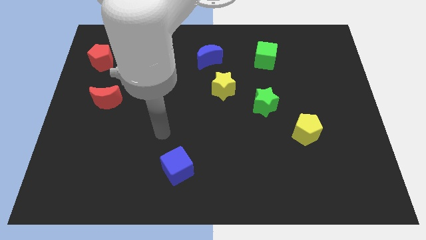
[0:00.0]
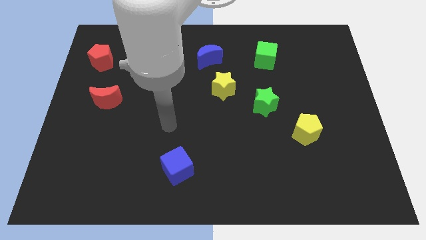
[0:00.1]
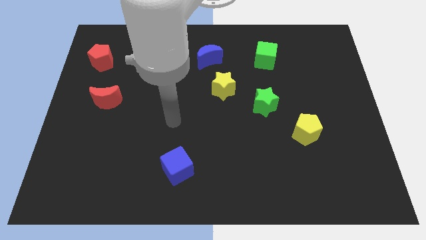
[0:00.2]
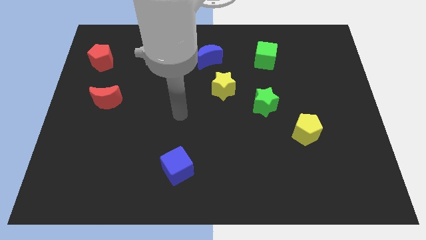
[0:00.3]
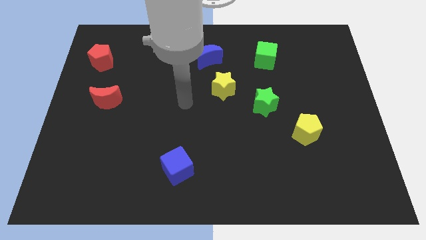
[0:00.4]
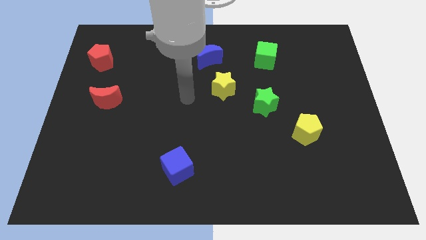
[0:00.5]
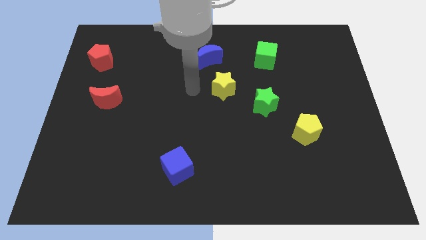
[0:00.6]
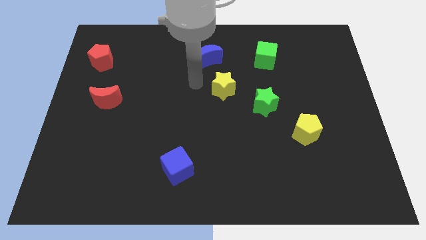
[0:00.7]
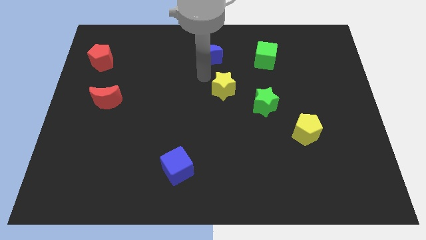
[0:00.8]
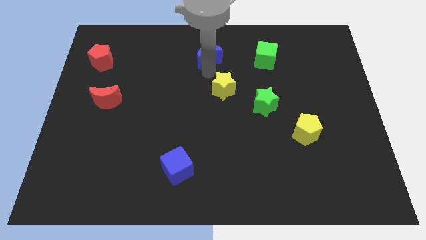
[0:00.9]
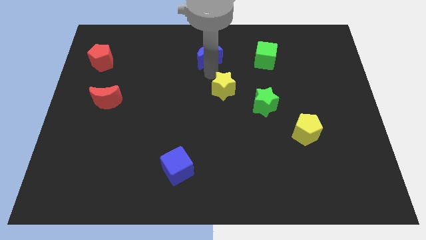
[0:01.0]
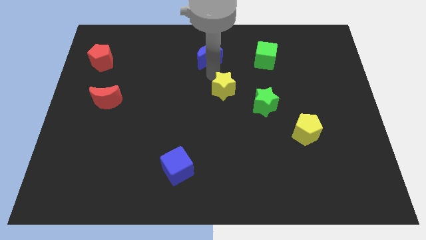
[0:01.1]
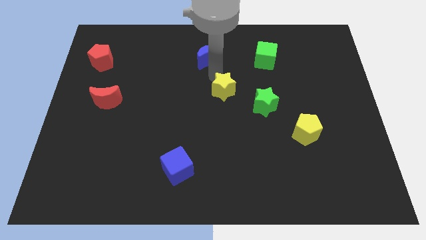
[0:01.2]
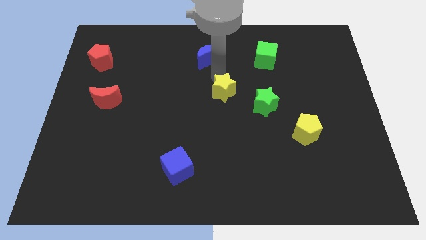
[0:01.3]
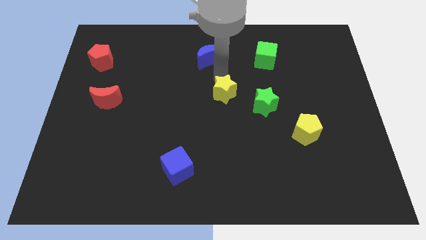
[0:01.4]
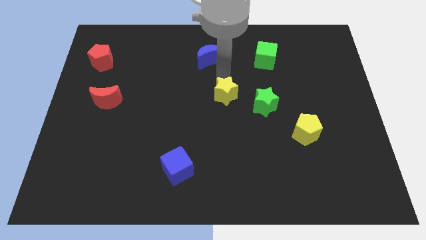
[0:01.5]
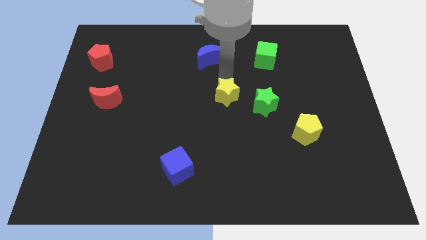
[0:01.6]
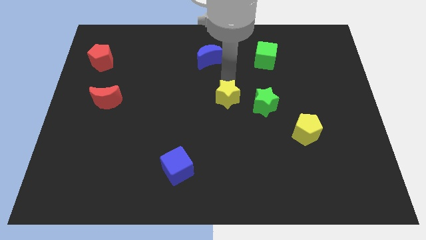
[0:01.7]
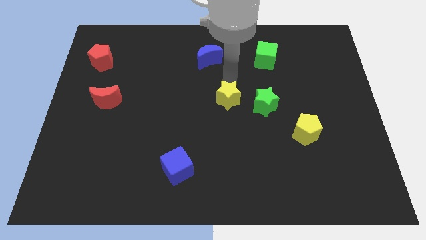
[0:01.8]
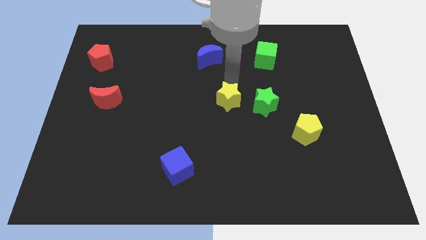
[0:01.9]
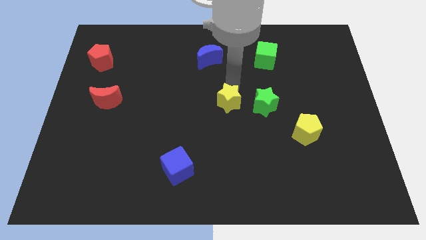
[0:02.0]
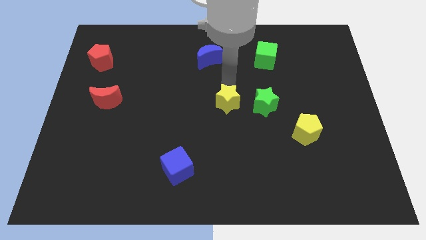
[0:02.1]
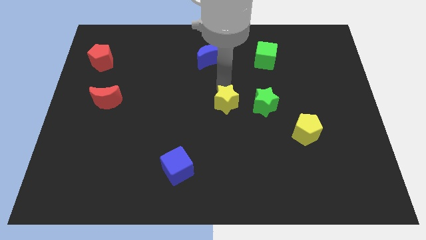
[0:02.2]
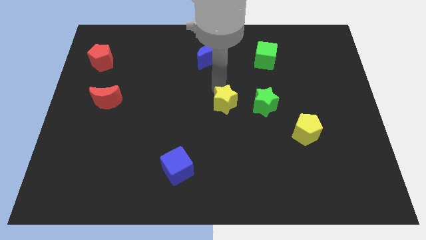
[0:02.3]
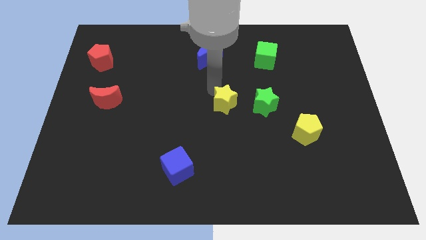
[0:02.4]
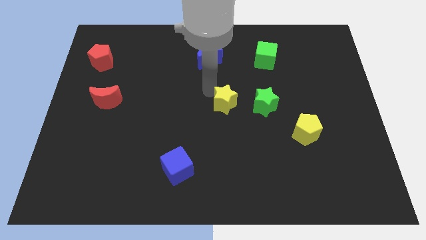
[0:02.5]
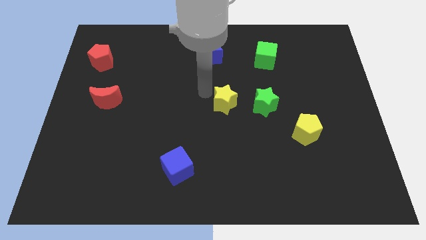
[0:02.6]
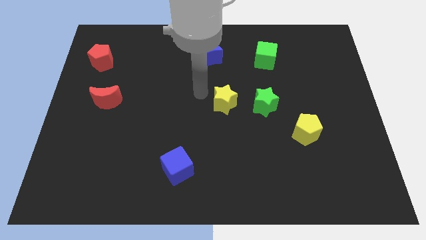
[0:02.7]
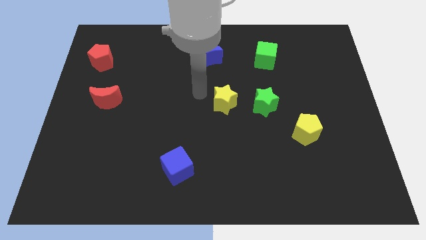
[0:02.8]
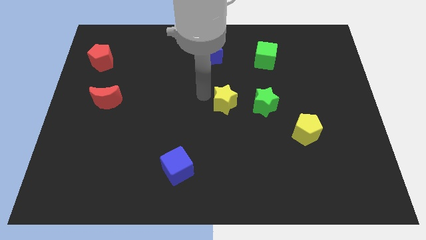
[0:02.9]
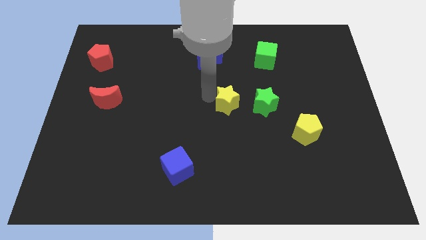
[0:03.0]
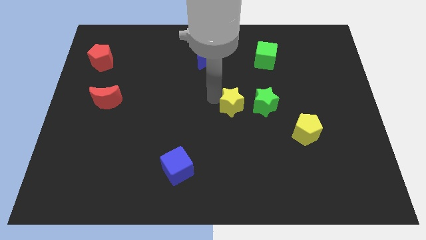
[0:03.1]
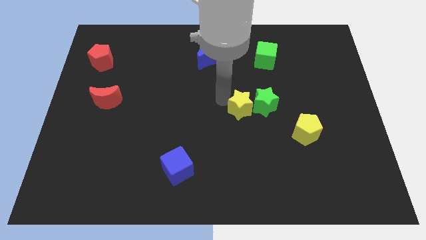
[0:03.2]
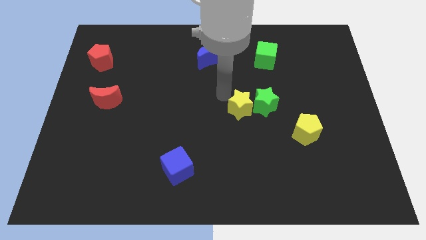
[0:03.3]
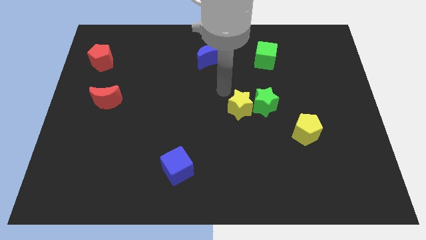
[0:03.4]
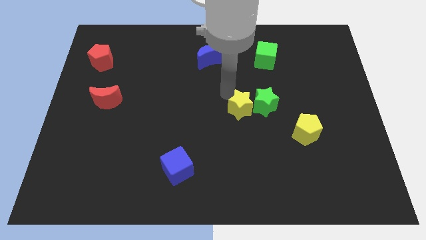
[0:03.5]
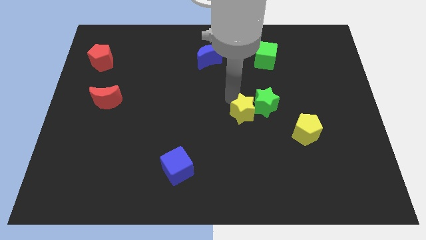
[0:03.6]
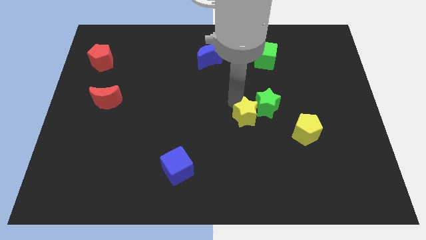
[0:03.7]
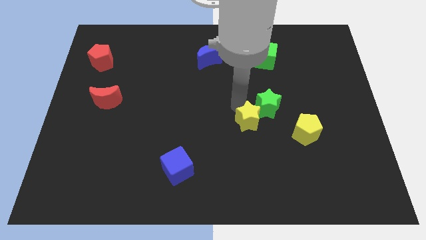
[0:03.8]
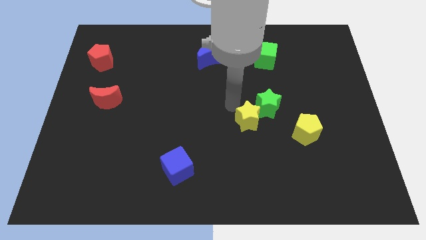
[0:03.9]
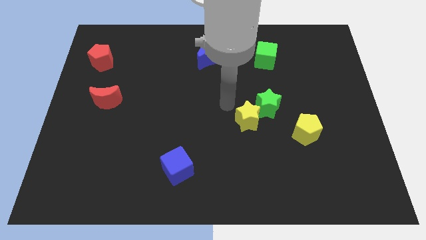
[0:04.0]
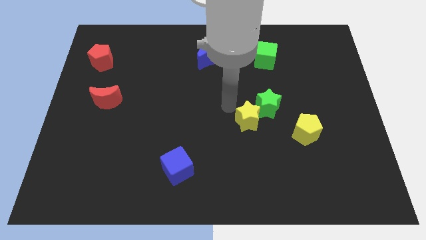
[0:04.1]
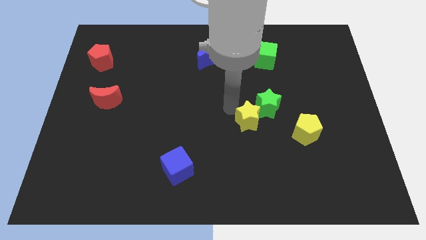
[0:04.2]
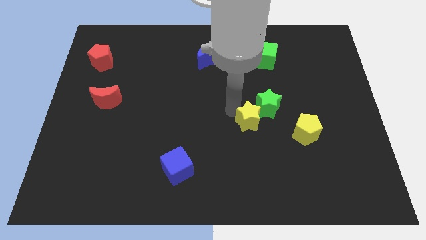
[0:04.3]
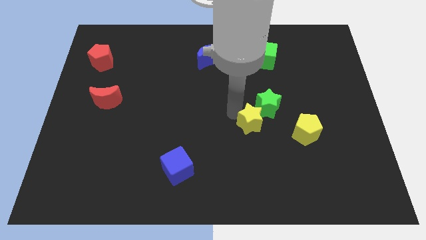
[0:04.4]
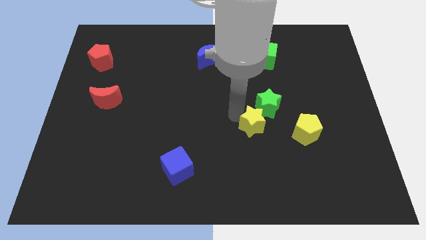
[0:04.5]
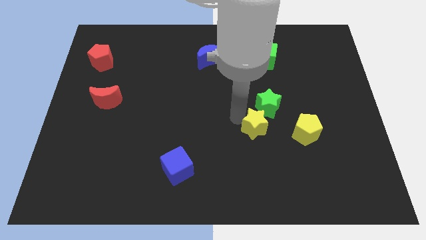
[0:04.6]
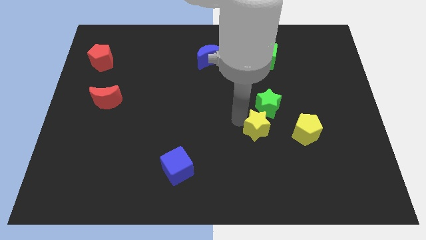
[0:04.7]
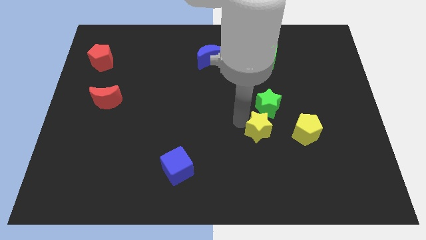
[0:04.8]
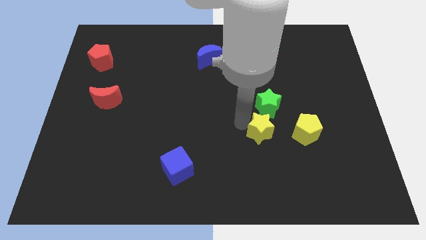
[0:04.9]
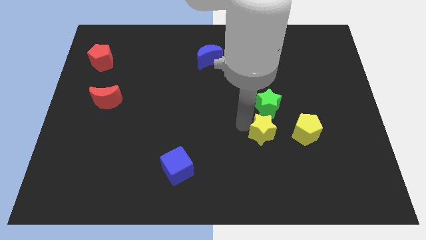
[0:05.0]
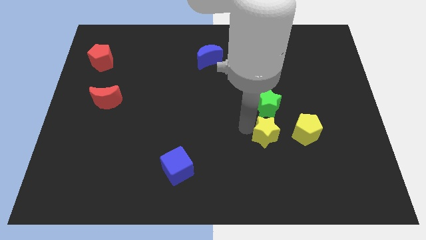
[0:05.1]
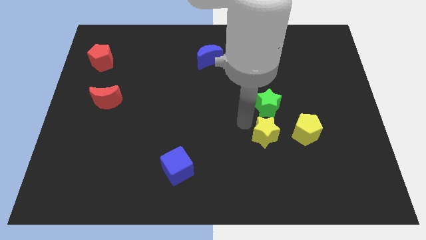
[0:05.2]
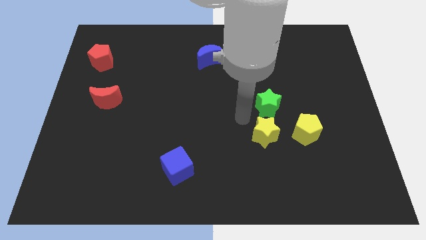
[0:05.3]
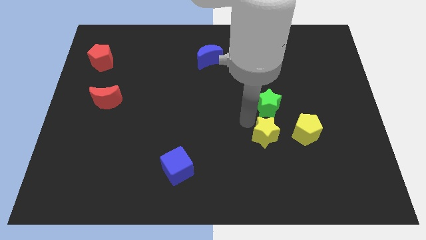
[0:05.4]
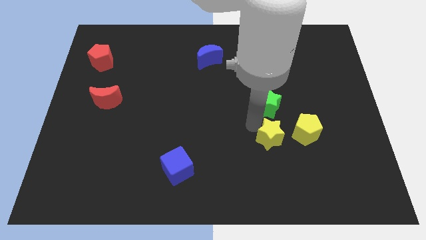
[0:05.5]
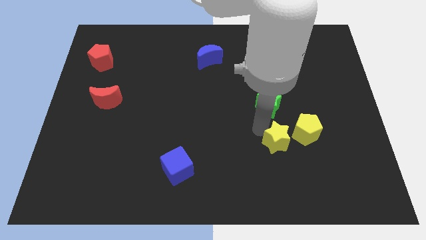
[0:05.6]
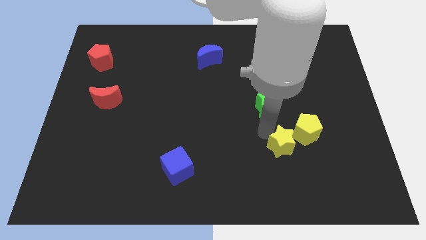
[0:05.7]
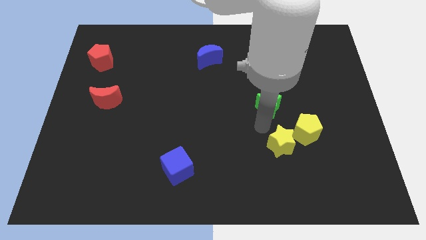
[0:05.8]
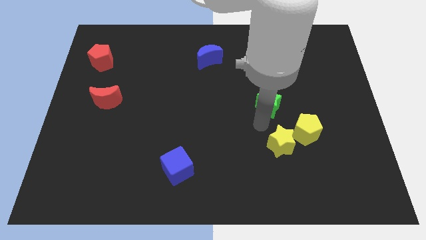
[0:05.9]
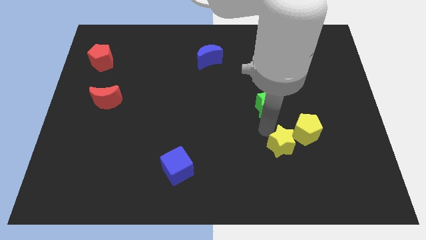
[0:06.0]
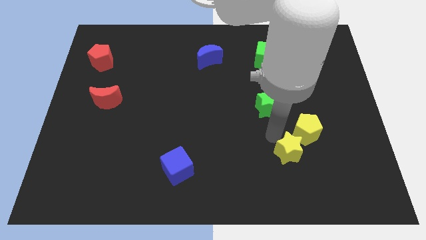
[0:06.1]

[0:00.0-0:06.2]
slide the yellow star below the yellow pentagon

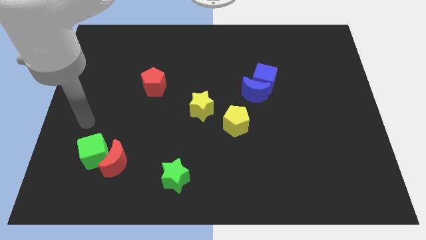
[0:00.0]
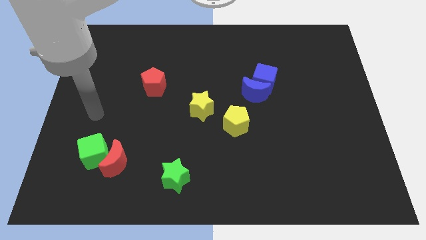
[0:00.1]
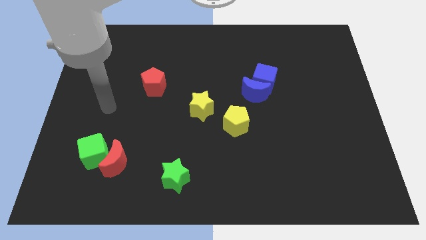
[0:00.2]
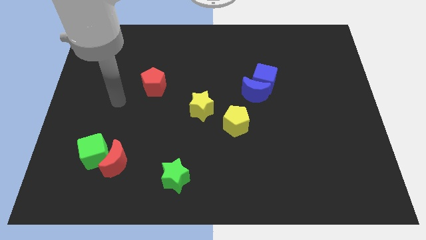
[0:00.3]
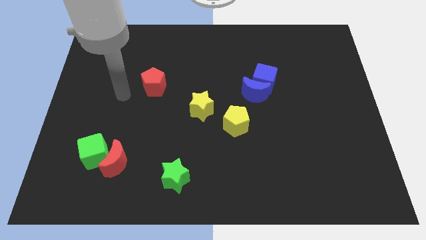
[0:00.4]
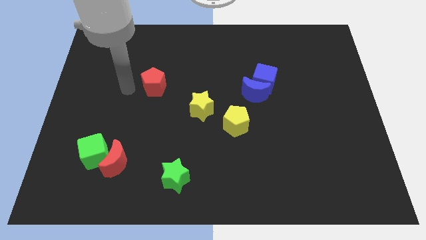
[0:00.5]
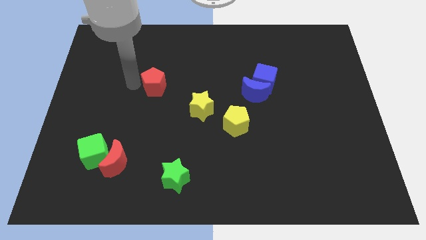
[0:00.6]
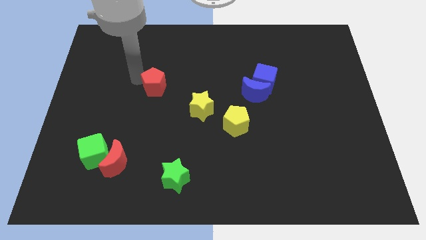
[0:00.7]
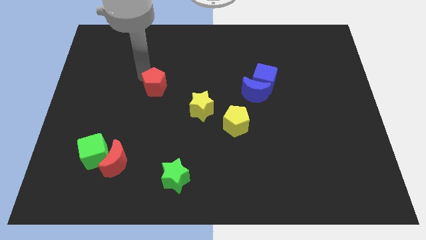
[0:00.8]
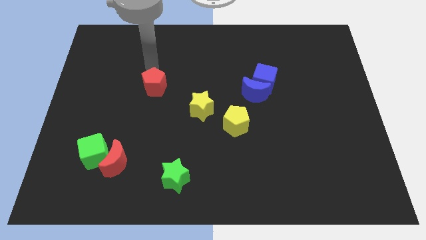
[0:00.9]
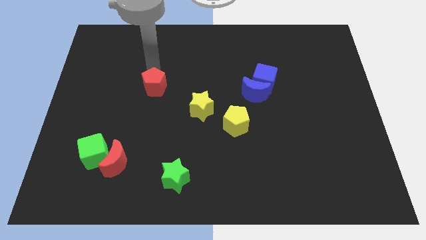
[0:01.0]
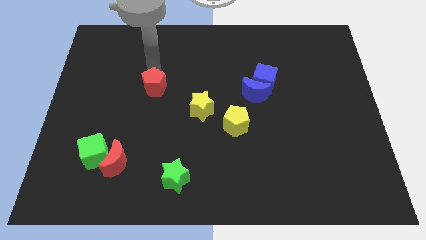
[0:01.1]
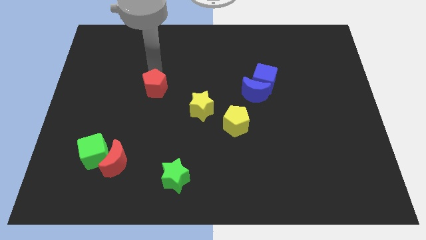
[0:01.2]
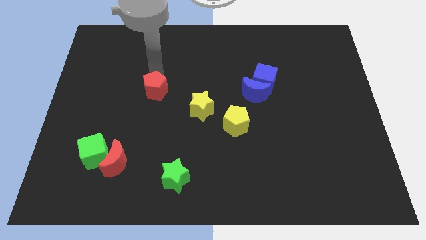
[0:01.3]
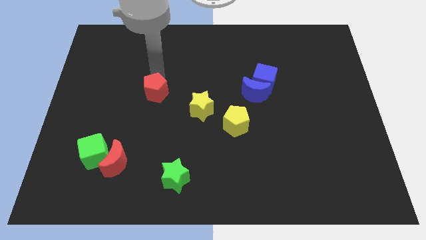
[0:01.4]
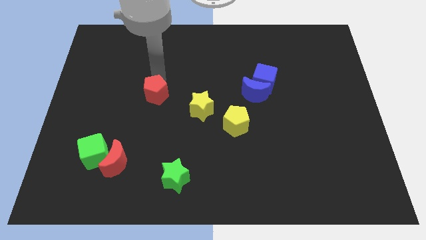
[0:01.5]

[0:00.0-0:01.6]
push the red pentagon left of the yellow star
